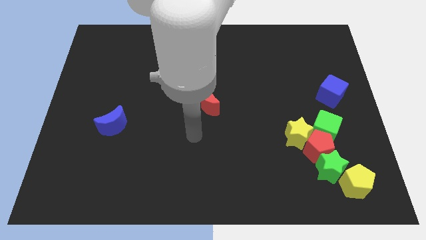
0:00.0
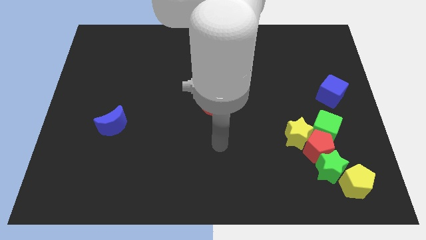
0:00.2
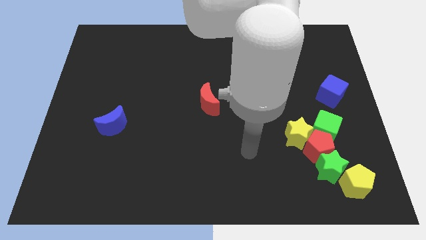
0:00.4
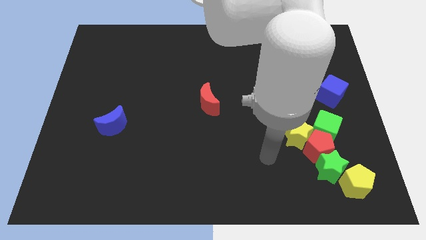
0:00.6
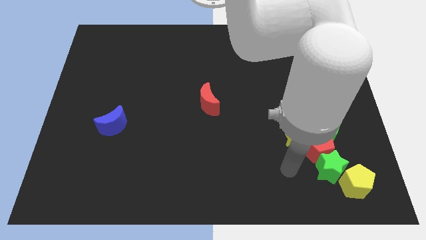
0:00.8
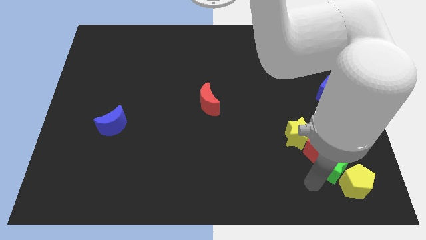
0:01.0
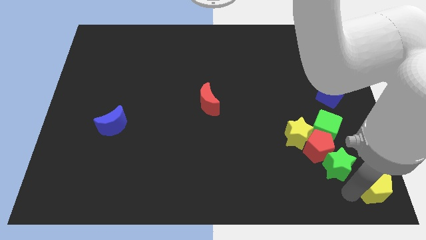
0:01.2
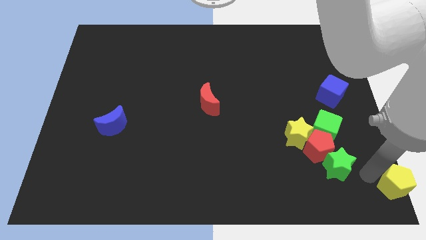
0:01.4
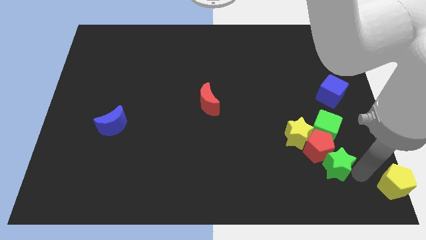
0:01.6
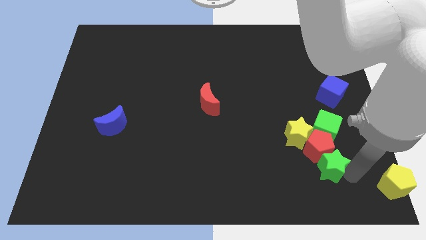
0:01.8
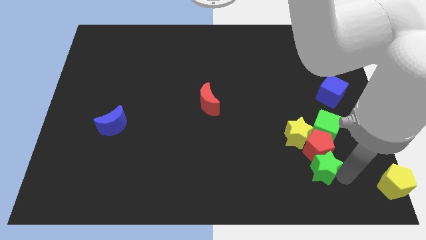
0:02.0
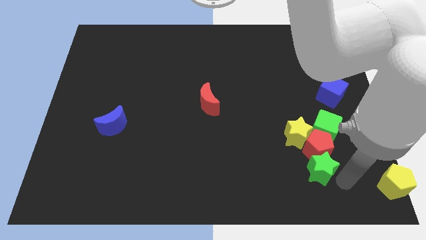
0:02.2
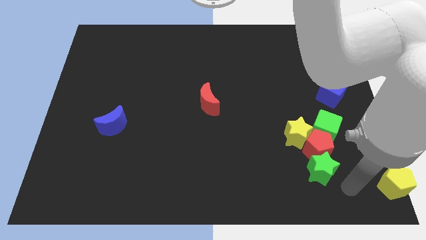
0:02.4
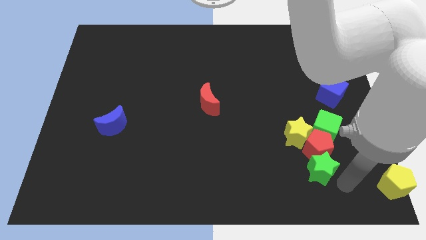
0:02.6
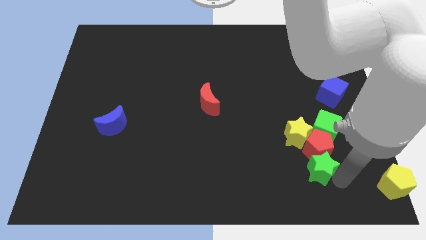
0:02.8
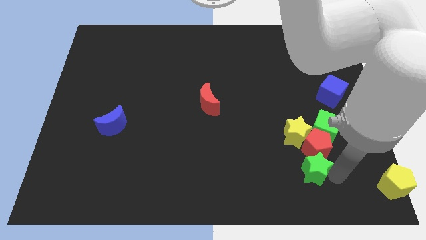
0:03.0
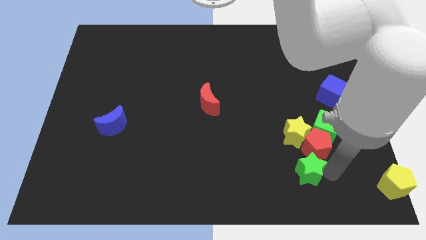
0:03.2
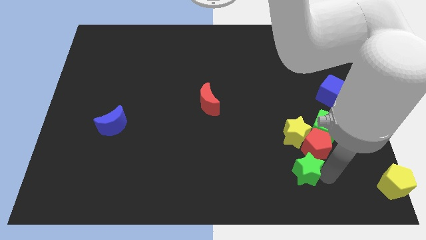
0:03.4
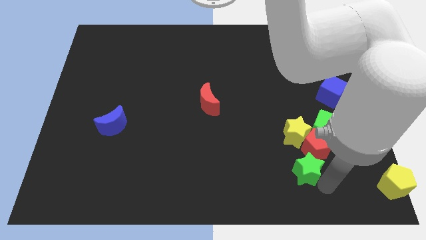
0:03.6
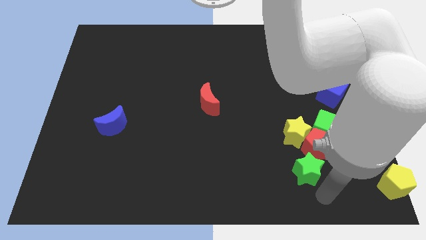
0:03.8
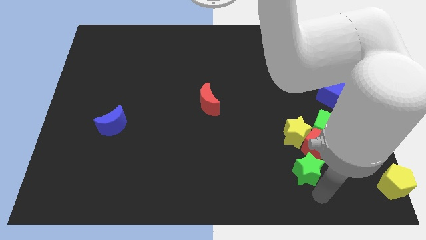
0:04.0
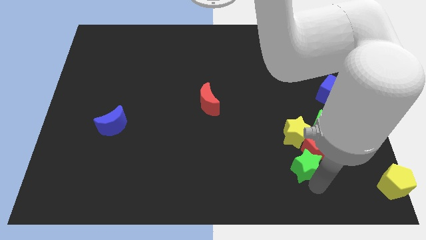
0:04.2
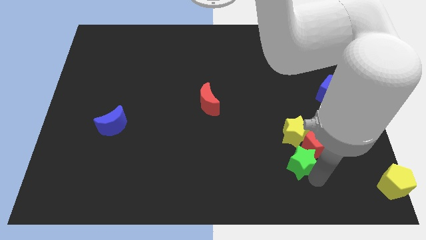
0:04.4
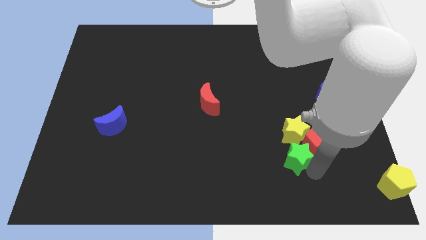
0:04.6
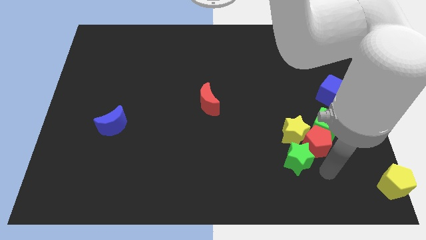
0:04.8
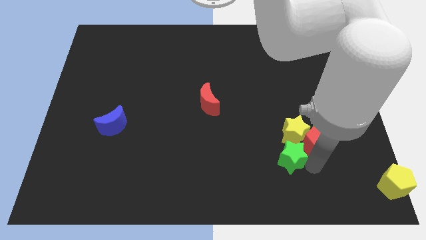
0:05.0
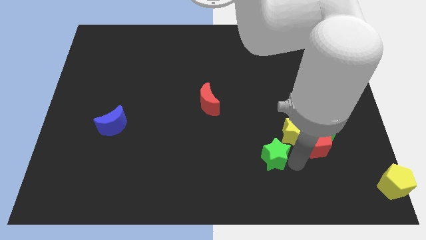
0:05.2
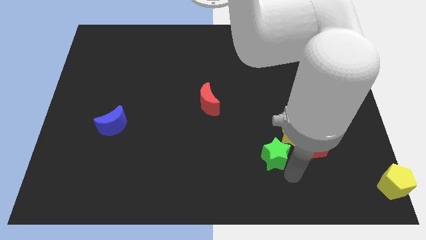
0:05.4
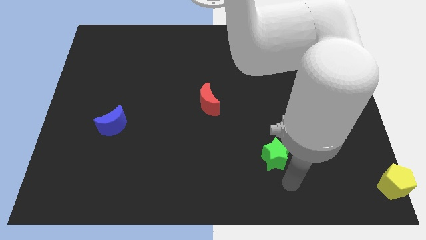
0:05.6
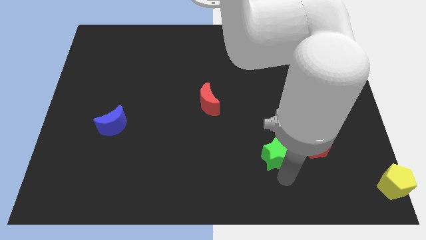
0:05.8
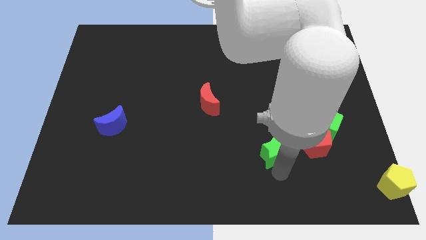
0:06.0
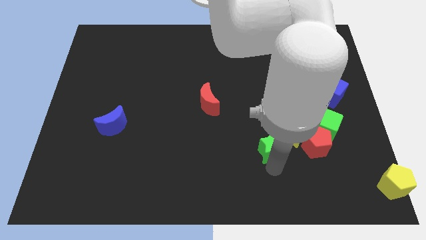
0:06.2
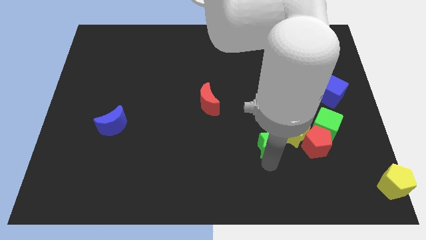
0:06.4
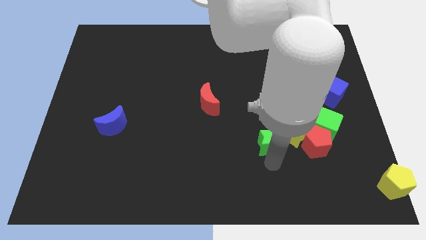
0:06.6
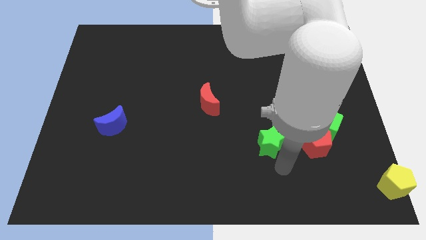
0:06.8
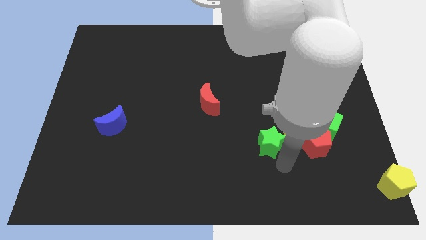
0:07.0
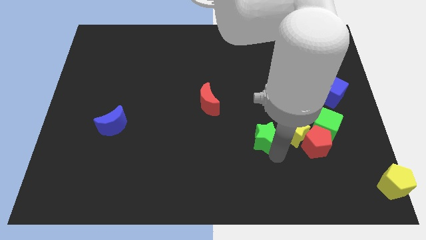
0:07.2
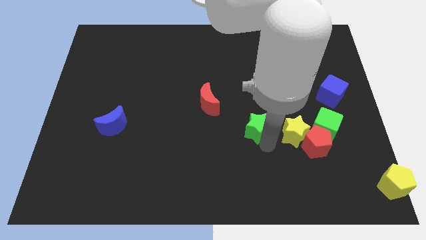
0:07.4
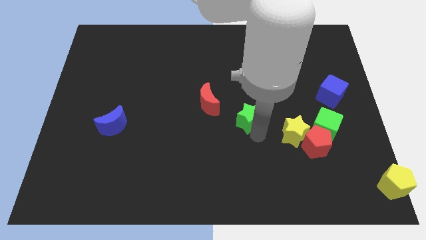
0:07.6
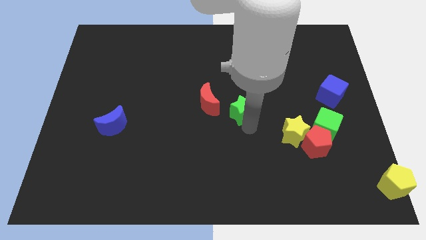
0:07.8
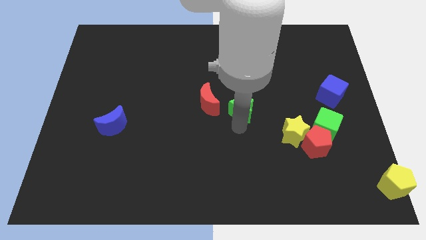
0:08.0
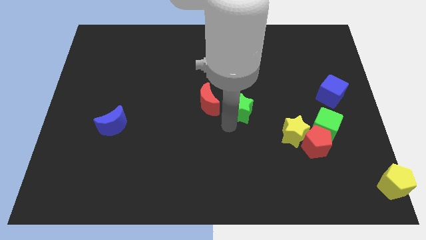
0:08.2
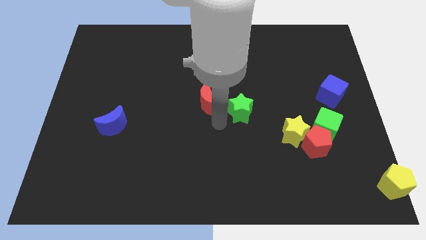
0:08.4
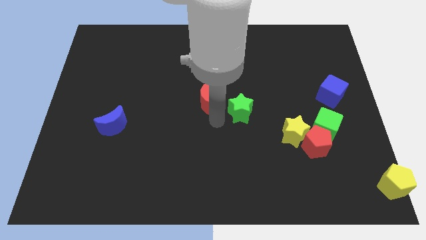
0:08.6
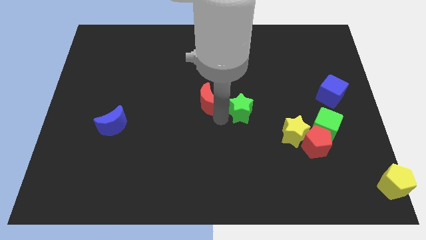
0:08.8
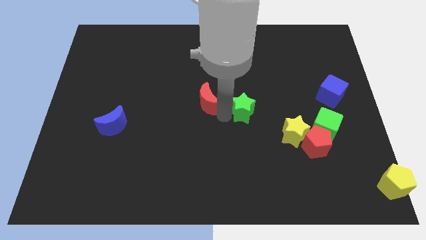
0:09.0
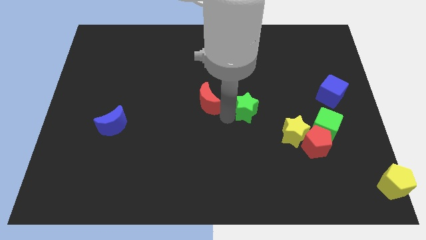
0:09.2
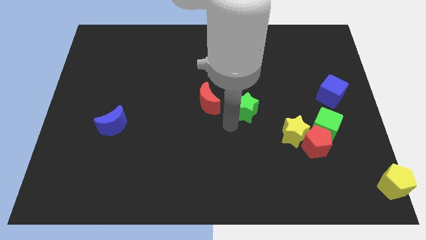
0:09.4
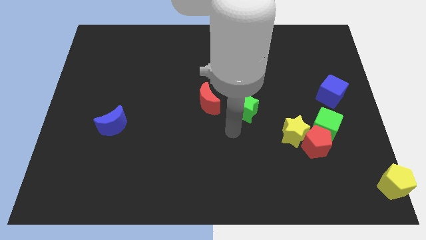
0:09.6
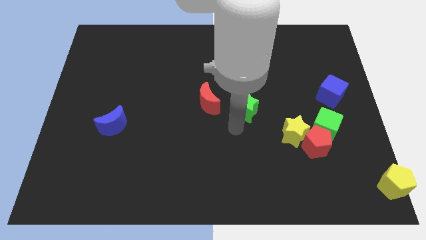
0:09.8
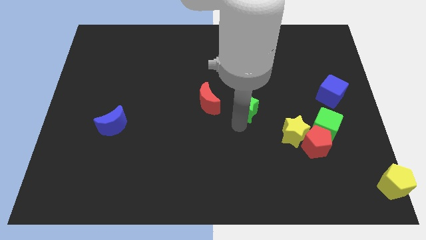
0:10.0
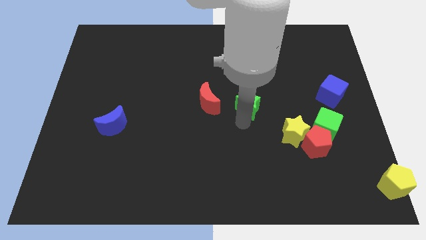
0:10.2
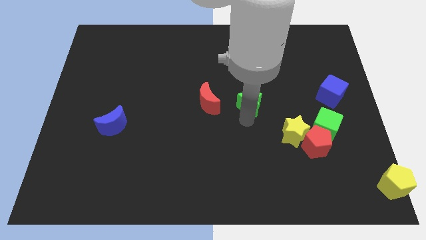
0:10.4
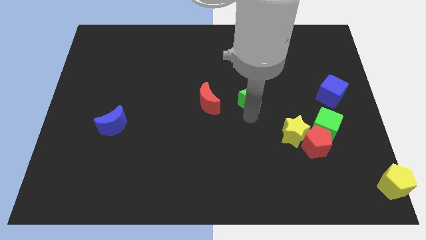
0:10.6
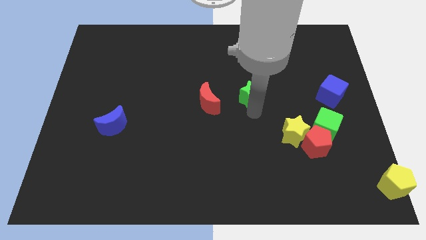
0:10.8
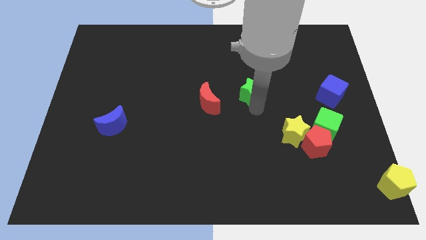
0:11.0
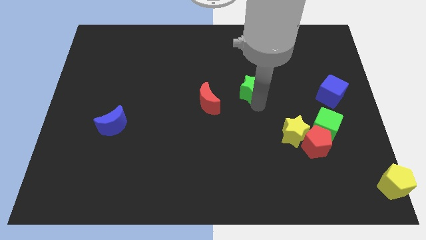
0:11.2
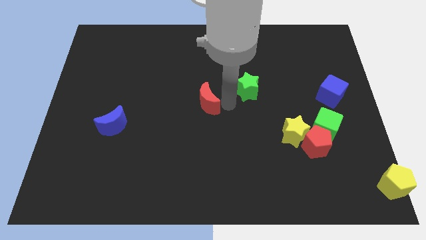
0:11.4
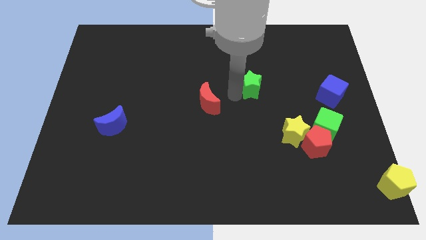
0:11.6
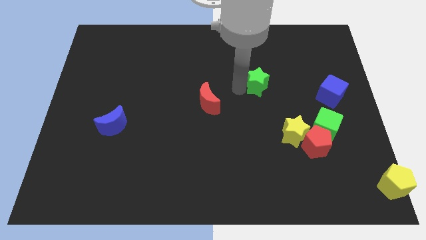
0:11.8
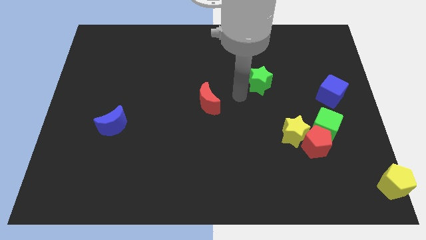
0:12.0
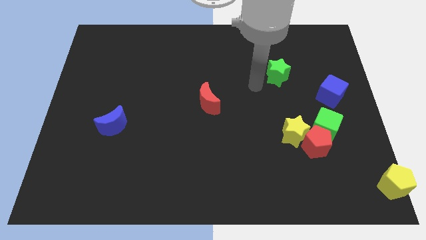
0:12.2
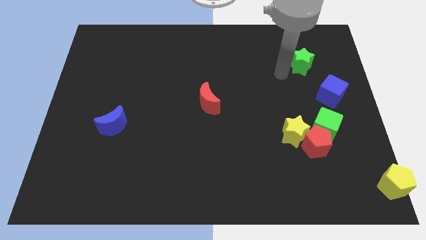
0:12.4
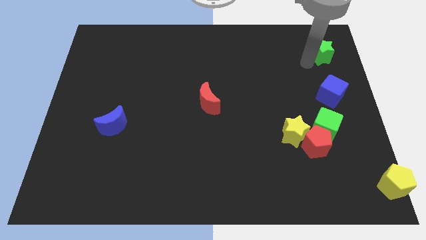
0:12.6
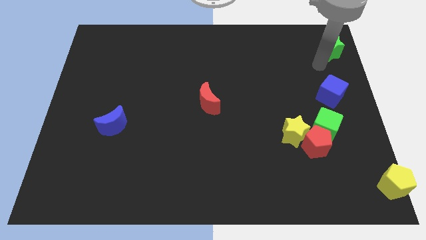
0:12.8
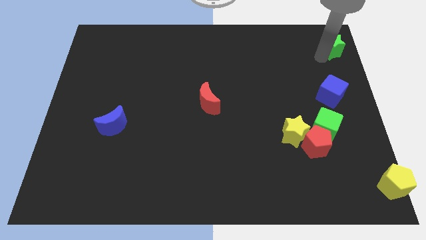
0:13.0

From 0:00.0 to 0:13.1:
push the green star to the top right
